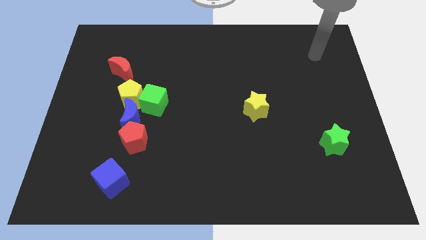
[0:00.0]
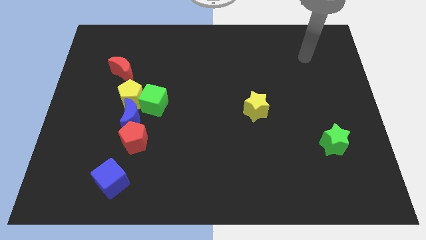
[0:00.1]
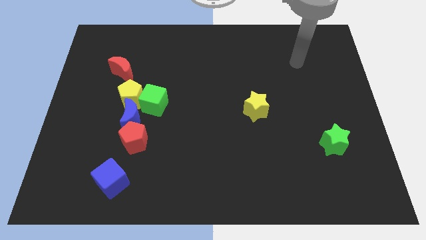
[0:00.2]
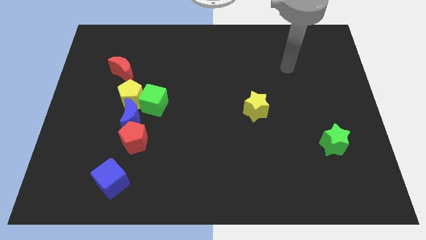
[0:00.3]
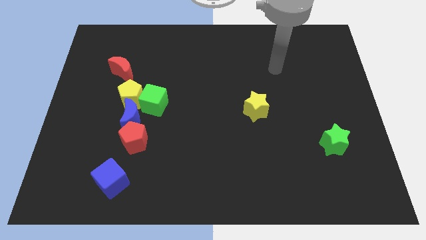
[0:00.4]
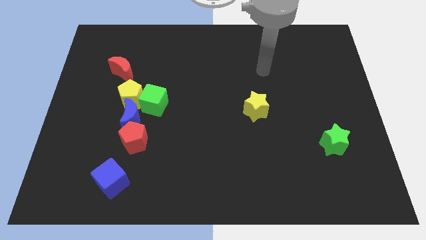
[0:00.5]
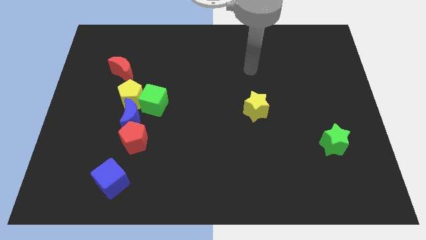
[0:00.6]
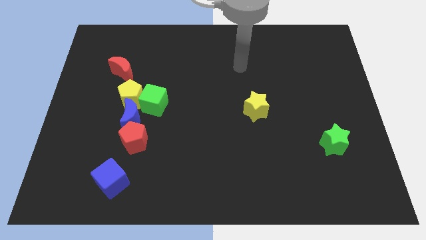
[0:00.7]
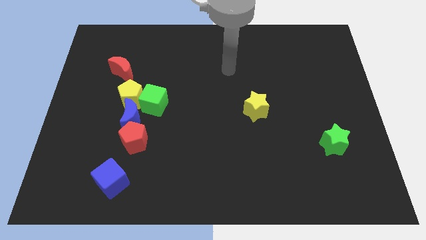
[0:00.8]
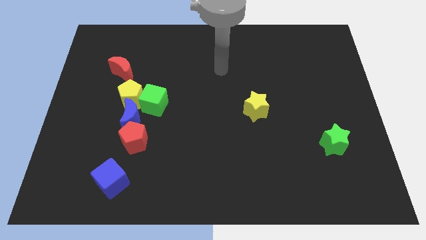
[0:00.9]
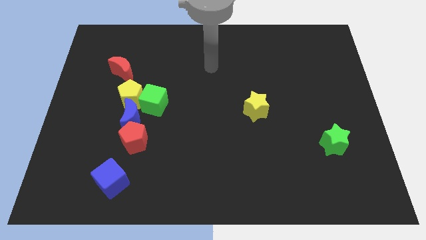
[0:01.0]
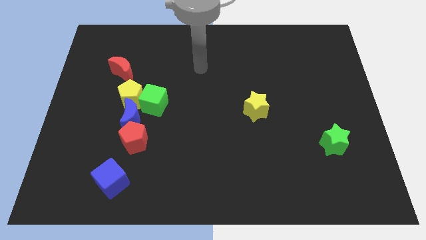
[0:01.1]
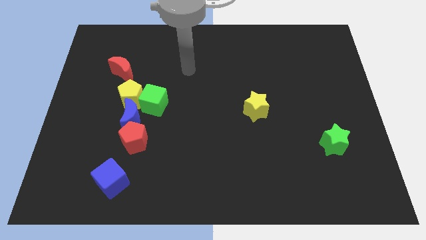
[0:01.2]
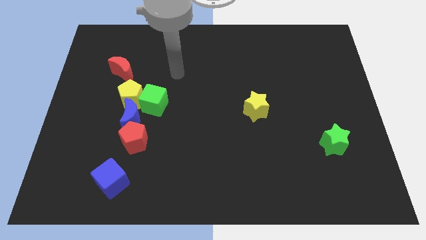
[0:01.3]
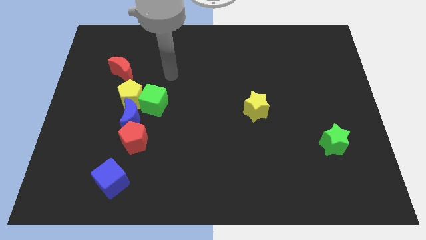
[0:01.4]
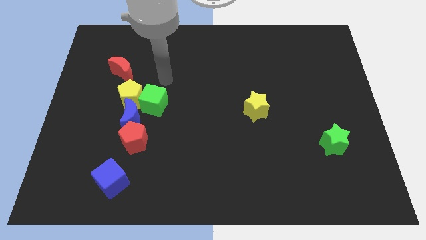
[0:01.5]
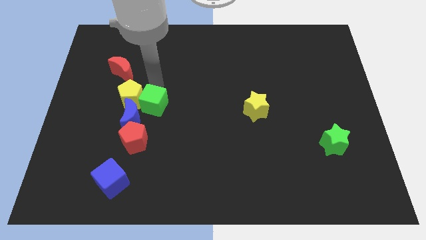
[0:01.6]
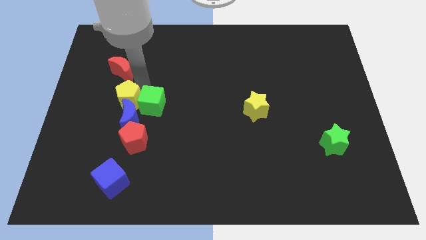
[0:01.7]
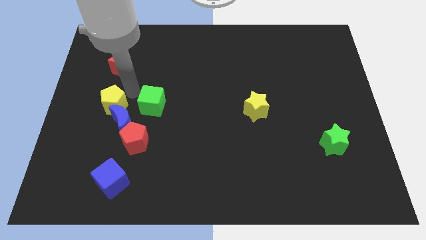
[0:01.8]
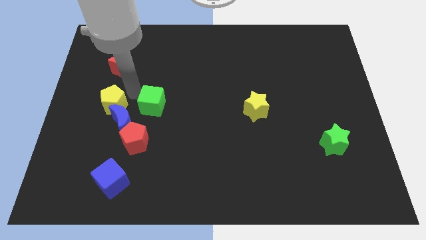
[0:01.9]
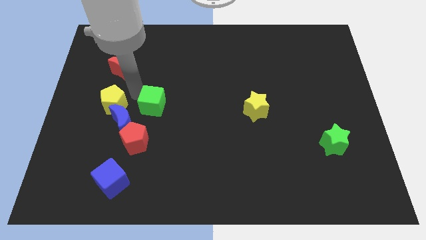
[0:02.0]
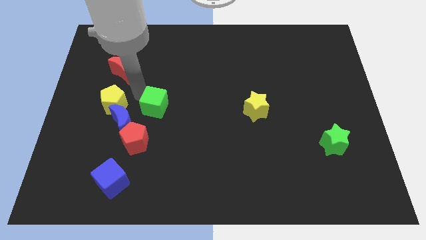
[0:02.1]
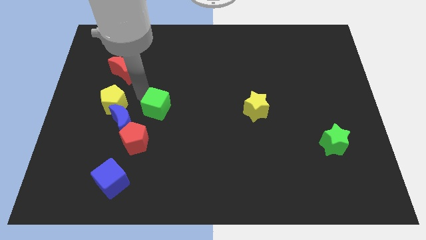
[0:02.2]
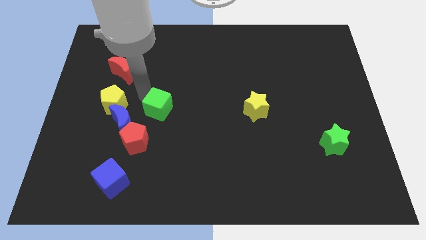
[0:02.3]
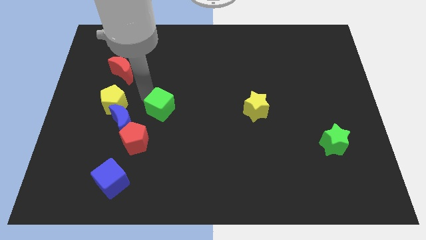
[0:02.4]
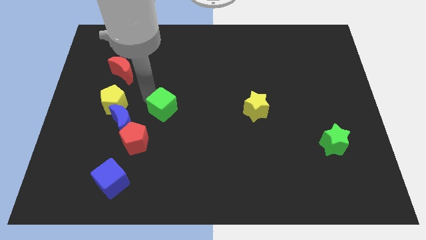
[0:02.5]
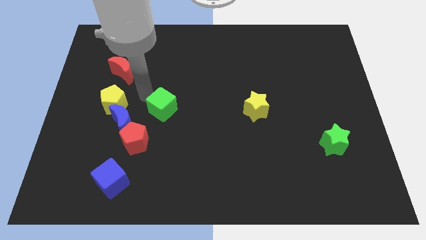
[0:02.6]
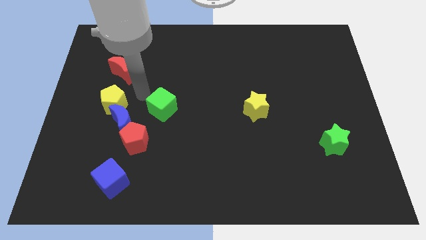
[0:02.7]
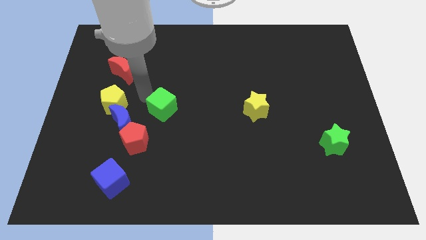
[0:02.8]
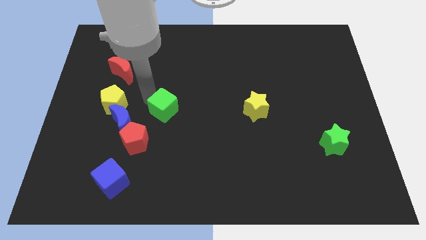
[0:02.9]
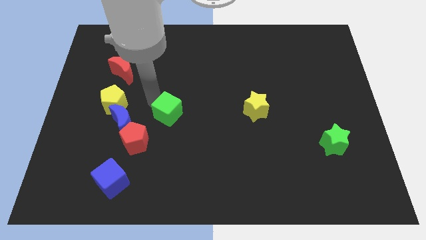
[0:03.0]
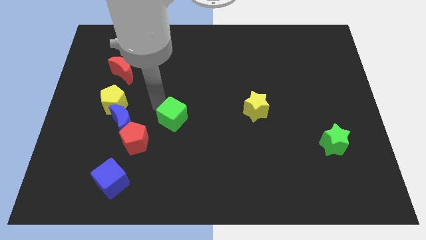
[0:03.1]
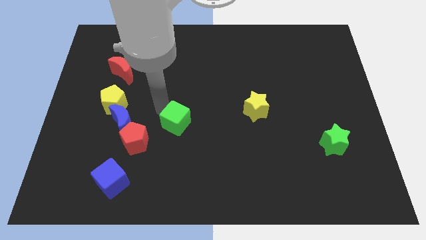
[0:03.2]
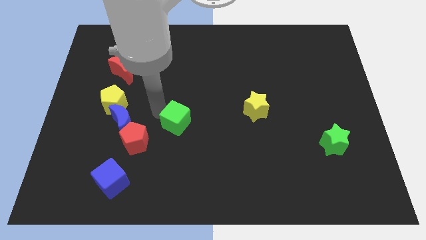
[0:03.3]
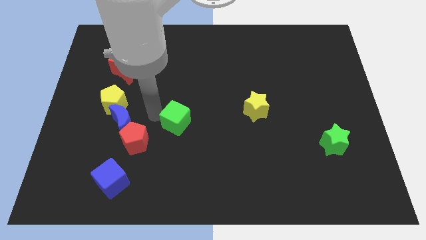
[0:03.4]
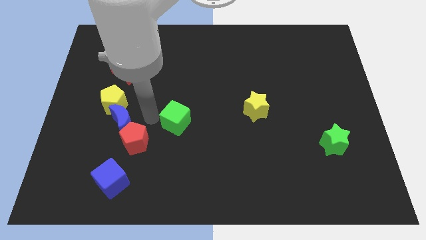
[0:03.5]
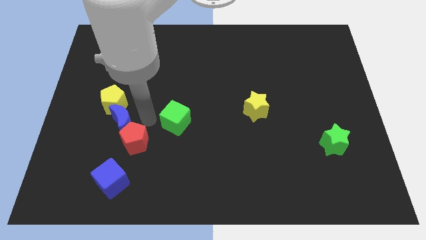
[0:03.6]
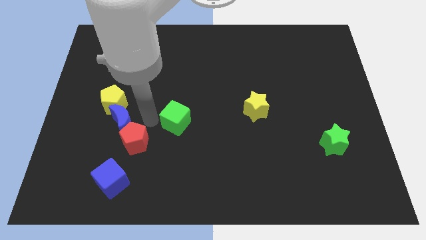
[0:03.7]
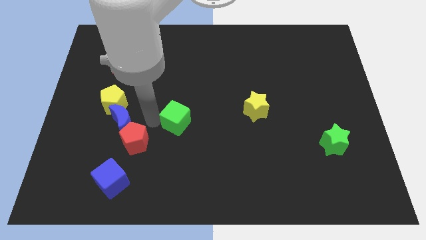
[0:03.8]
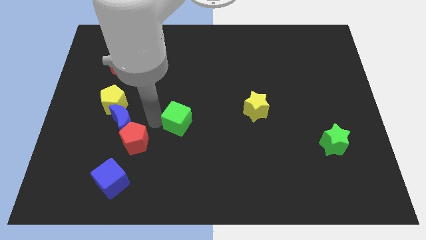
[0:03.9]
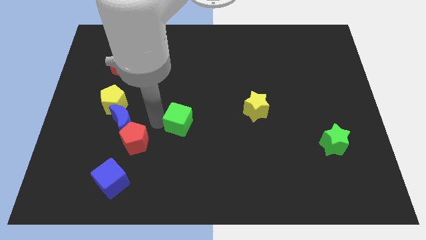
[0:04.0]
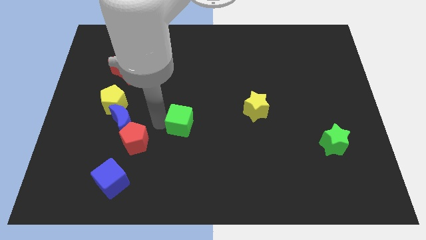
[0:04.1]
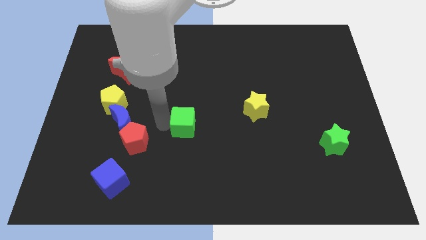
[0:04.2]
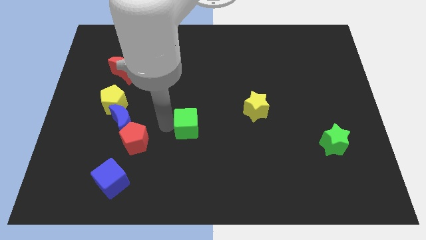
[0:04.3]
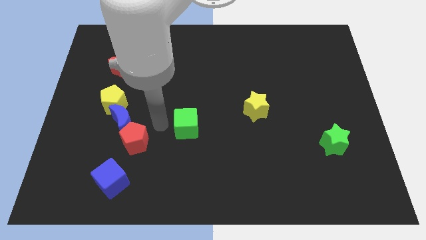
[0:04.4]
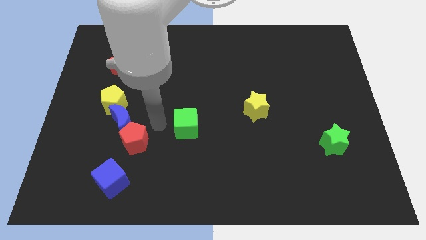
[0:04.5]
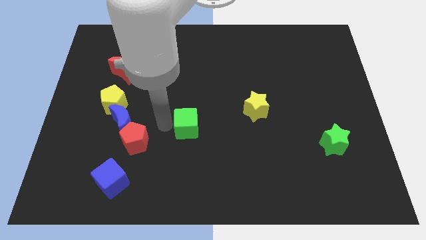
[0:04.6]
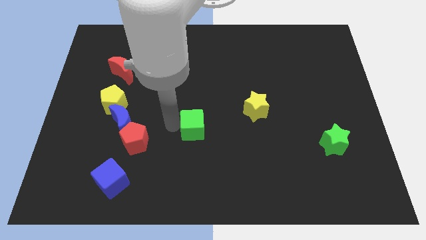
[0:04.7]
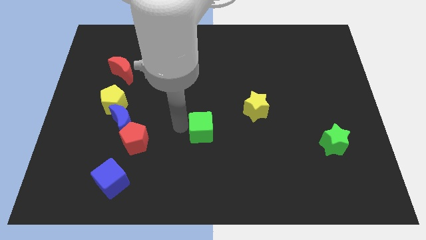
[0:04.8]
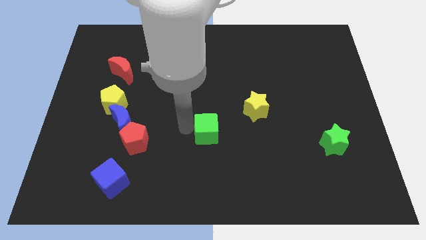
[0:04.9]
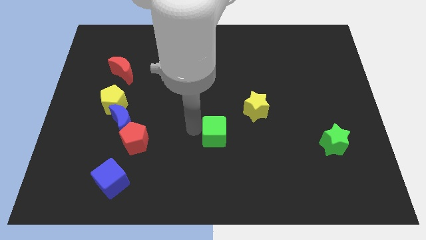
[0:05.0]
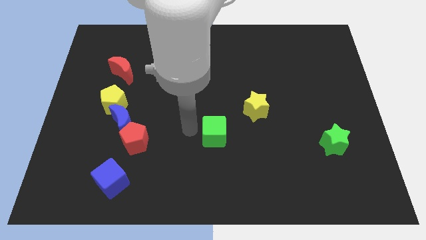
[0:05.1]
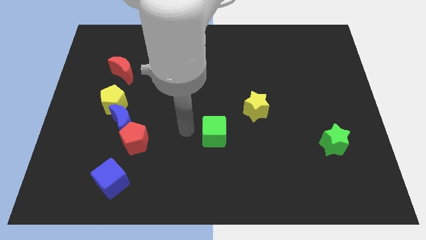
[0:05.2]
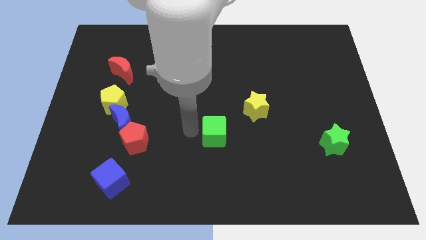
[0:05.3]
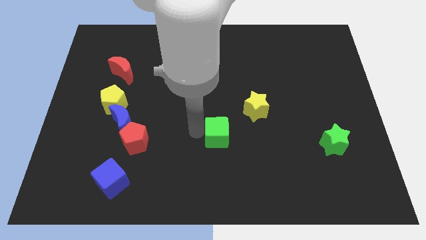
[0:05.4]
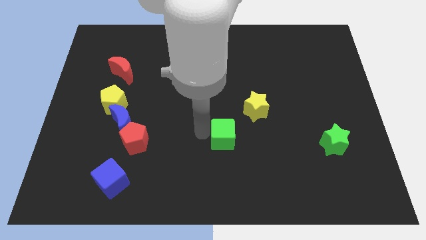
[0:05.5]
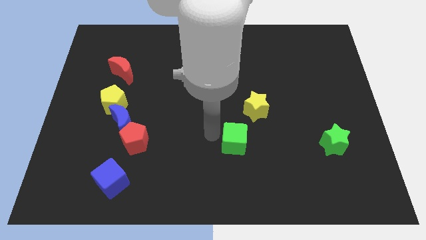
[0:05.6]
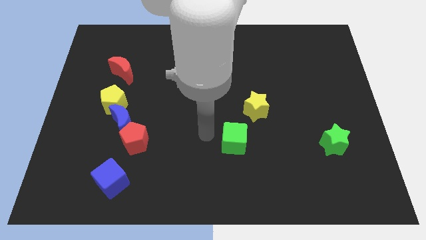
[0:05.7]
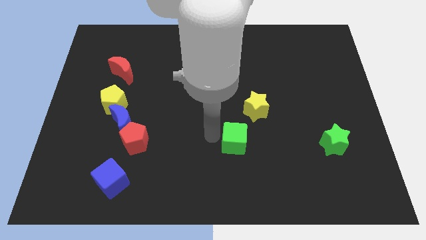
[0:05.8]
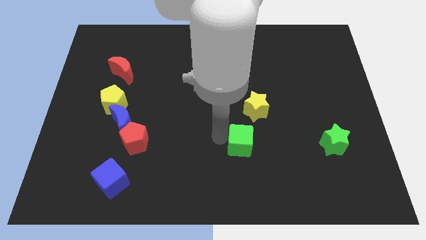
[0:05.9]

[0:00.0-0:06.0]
slide the green cube below the yellow star

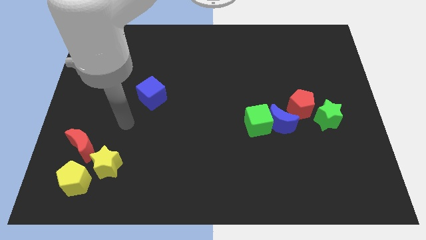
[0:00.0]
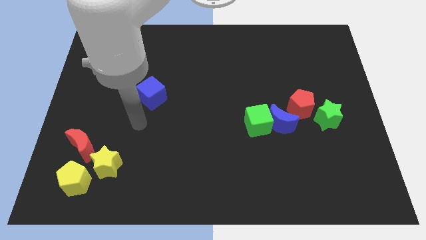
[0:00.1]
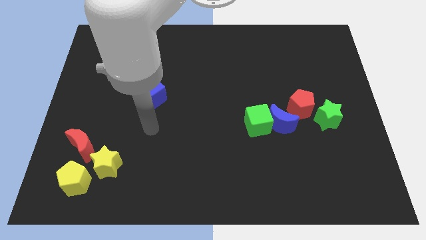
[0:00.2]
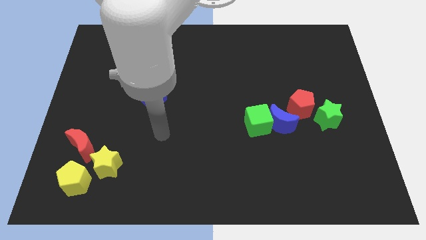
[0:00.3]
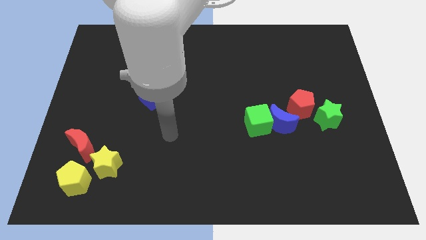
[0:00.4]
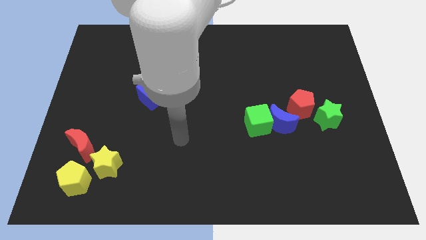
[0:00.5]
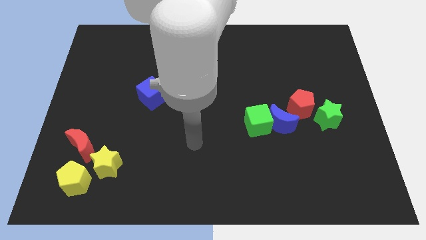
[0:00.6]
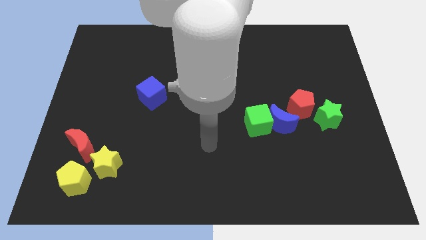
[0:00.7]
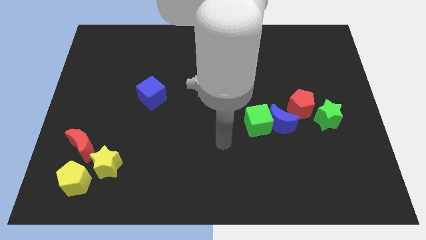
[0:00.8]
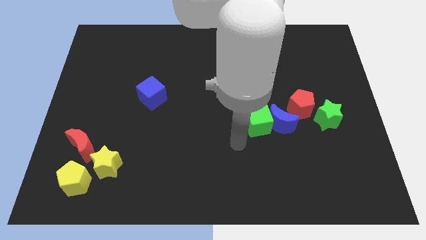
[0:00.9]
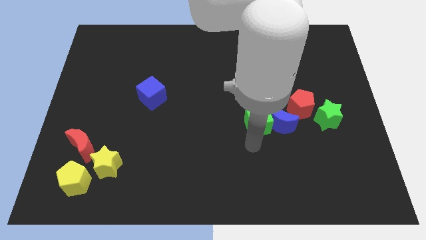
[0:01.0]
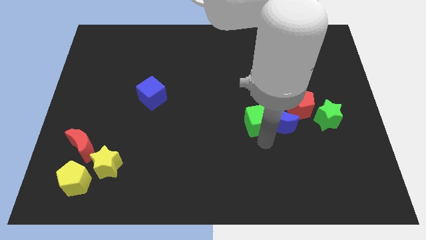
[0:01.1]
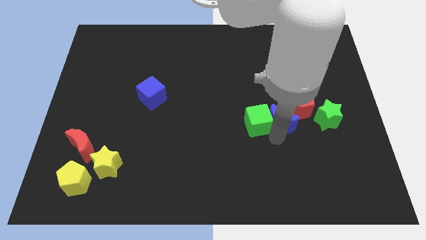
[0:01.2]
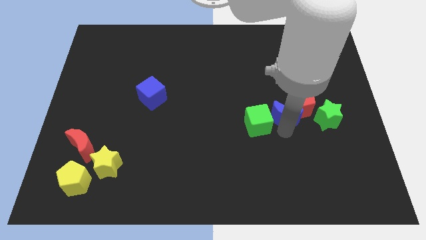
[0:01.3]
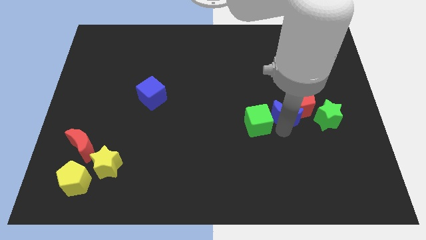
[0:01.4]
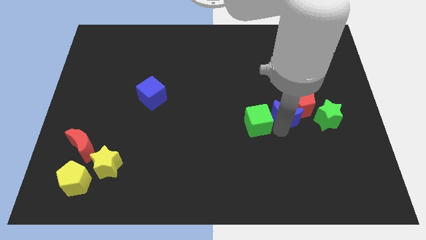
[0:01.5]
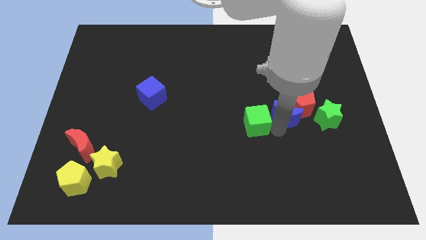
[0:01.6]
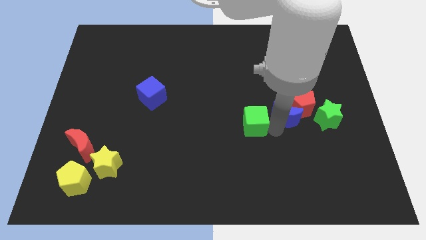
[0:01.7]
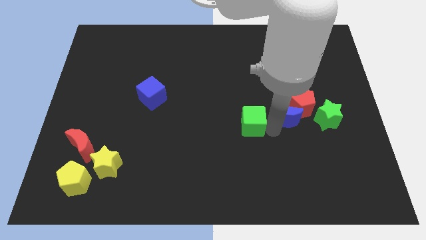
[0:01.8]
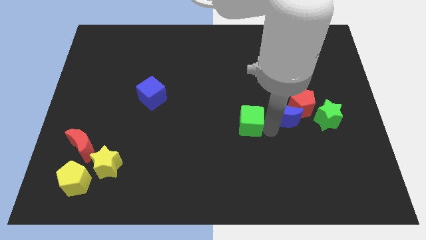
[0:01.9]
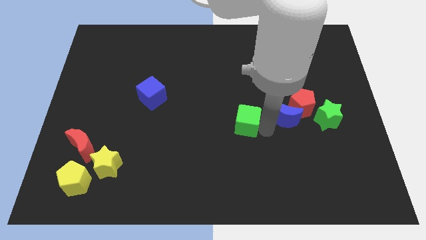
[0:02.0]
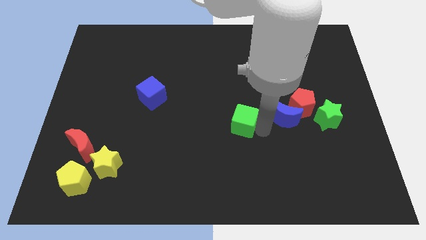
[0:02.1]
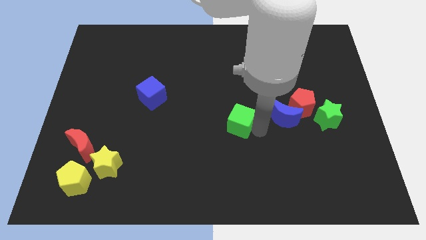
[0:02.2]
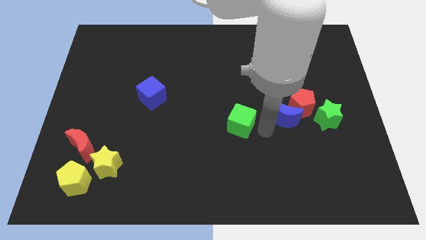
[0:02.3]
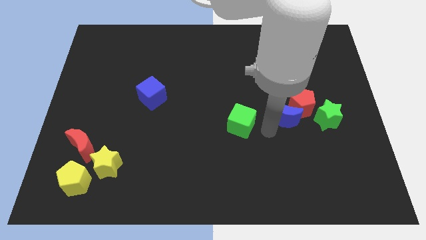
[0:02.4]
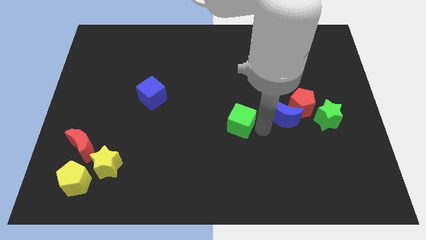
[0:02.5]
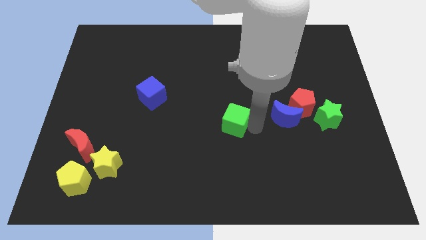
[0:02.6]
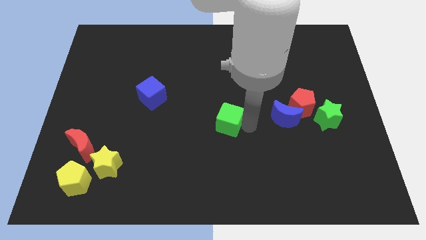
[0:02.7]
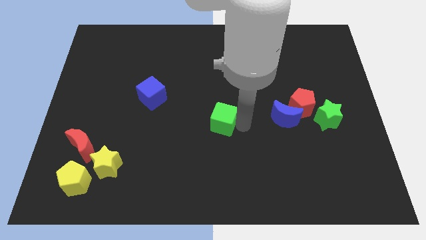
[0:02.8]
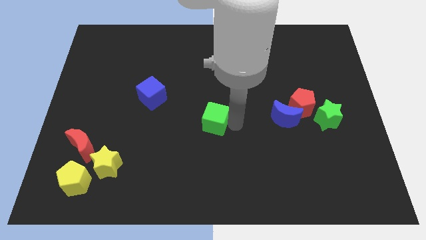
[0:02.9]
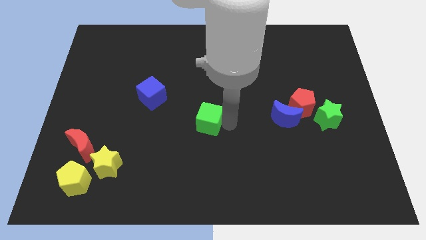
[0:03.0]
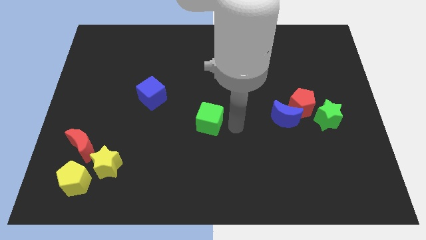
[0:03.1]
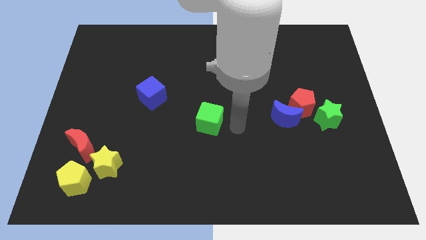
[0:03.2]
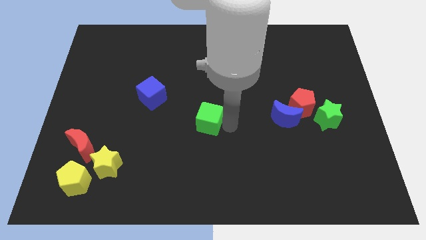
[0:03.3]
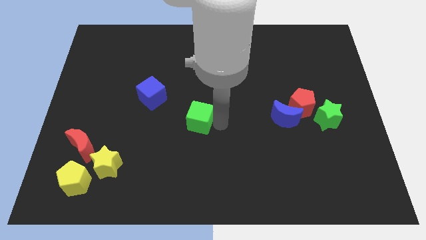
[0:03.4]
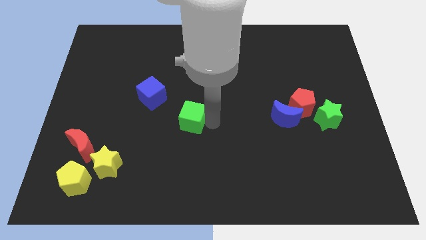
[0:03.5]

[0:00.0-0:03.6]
move the green cube diagonally down and to the right of the blue cube
